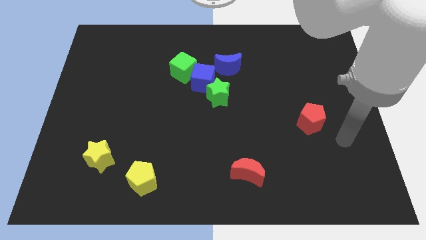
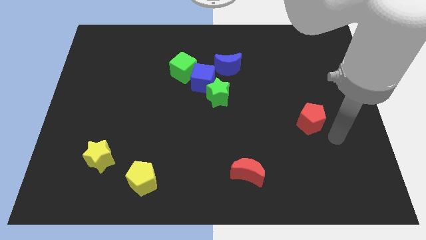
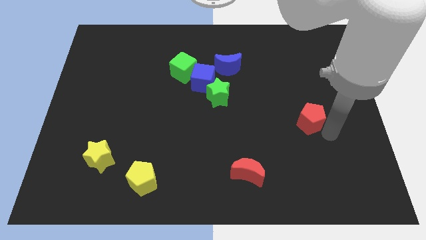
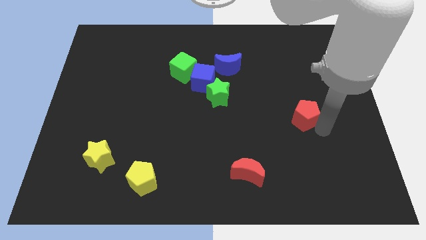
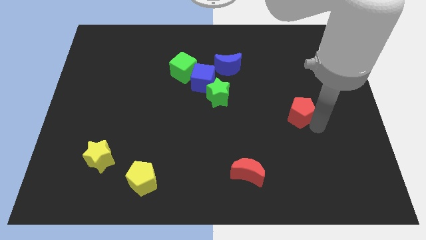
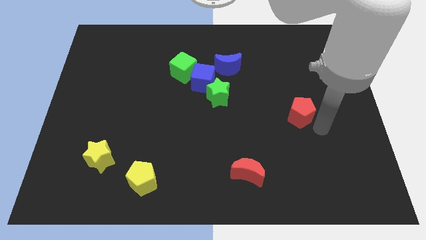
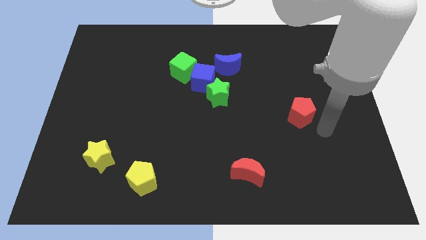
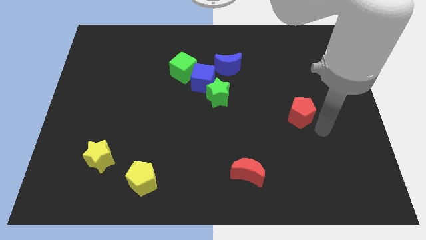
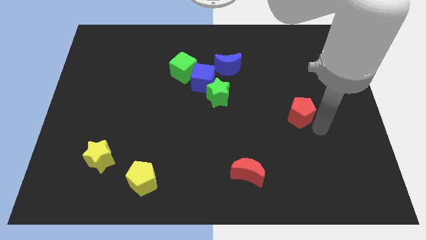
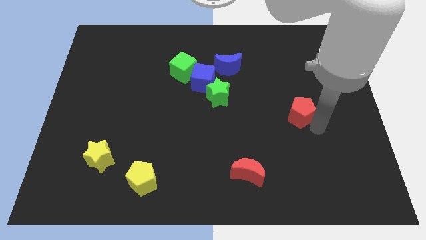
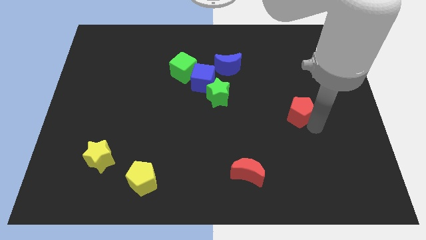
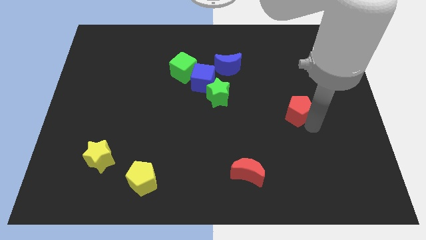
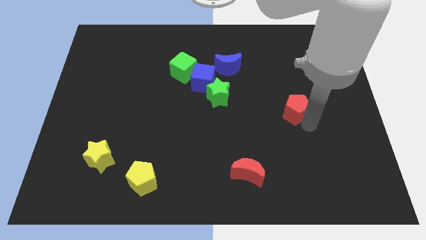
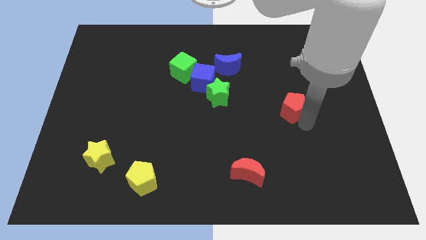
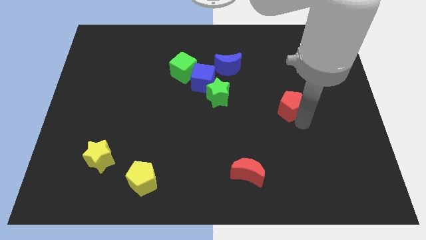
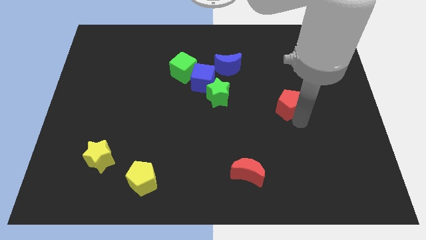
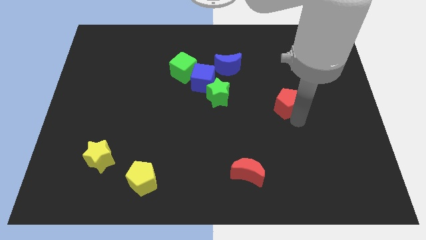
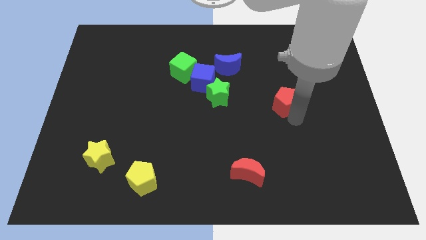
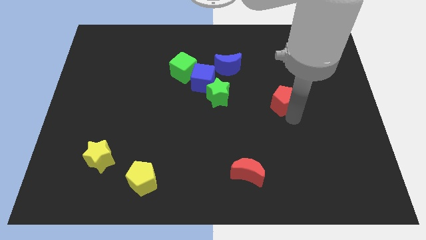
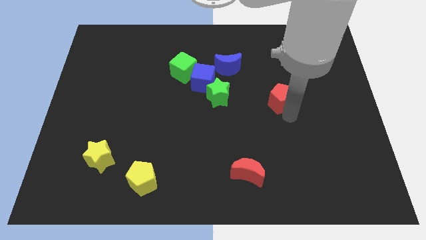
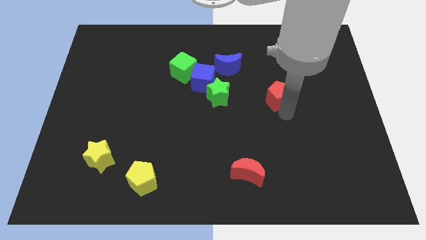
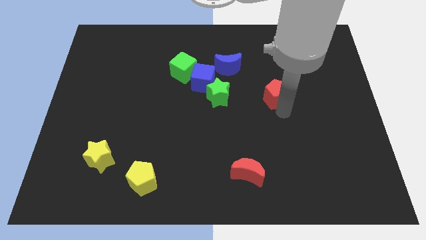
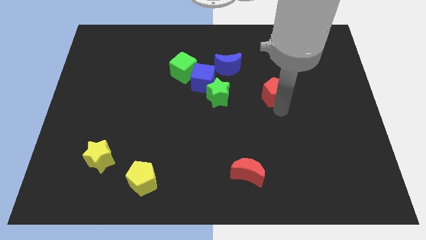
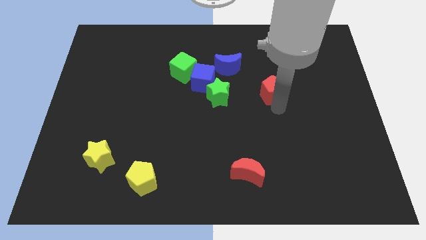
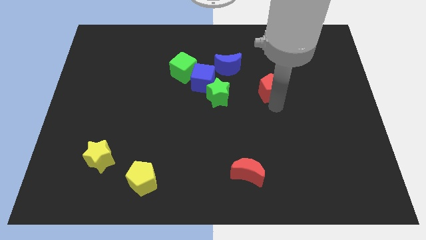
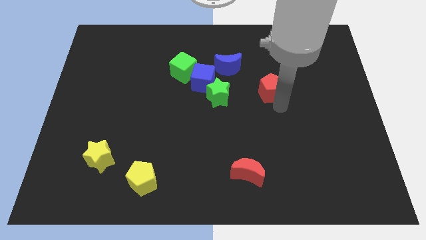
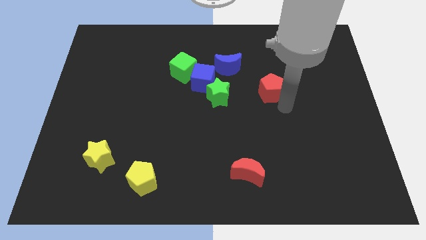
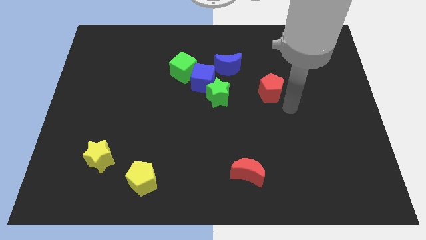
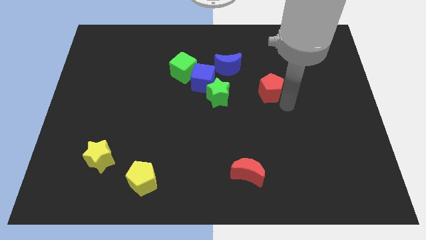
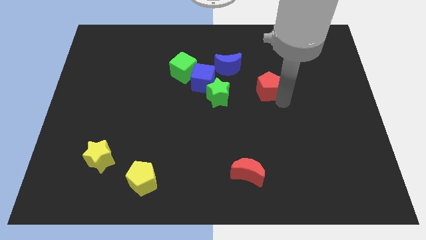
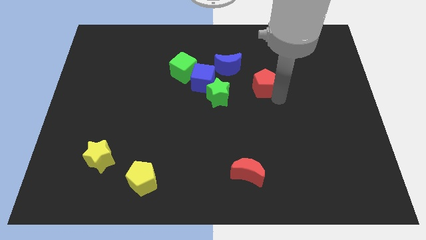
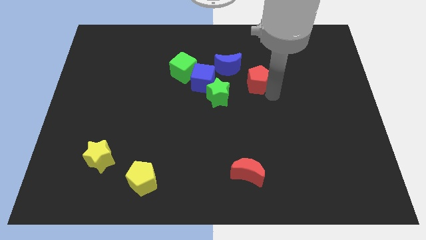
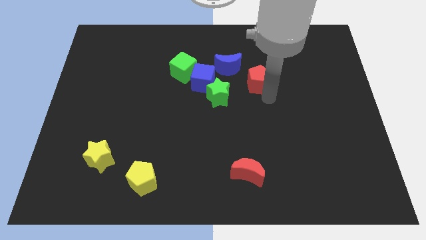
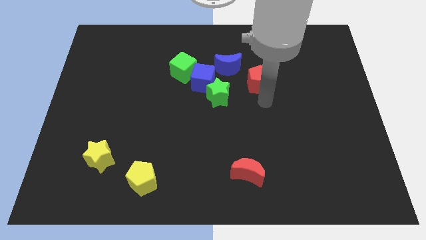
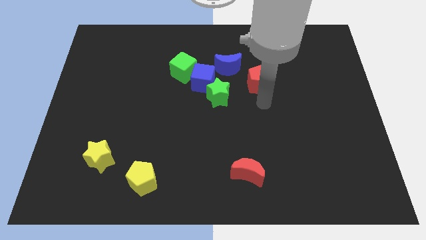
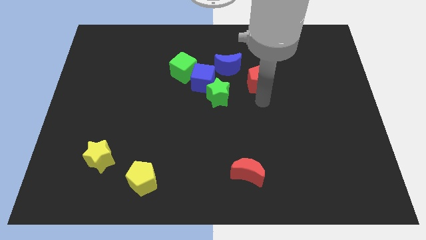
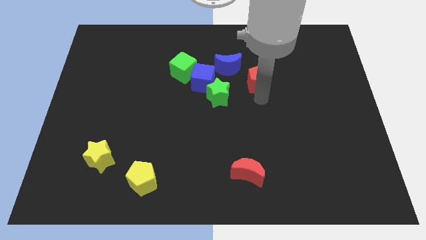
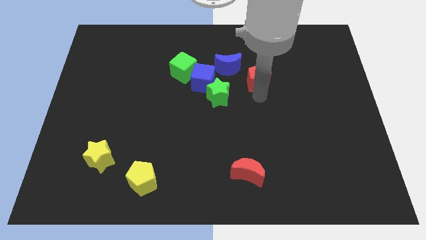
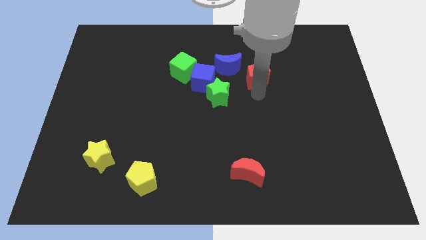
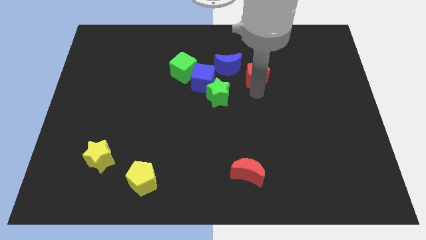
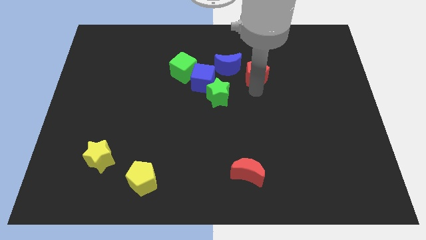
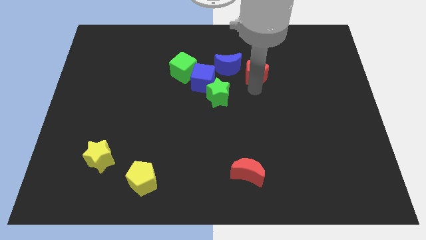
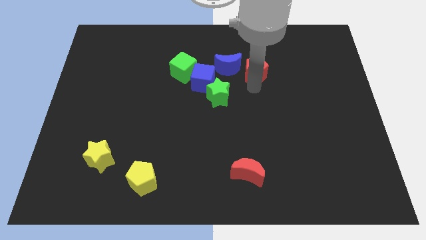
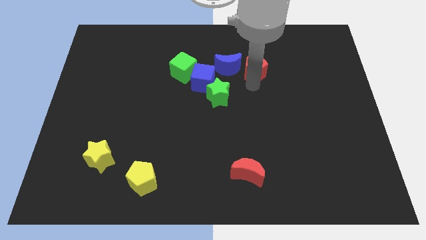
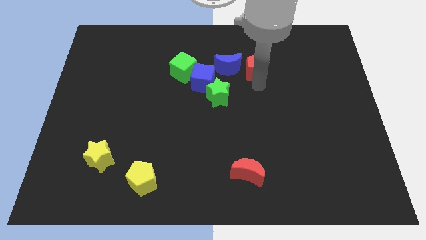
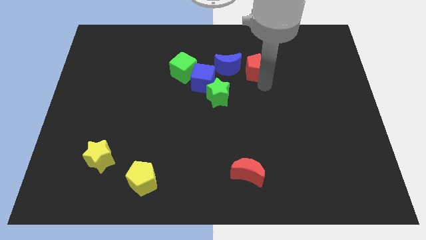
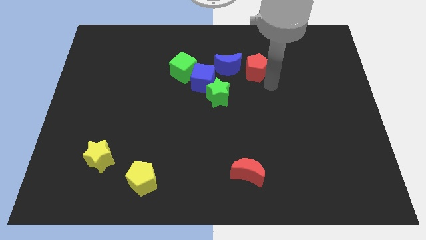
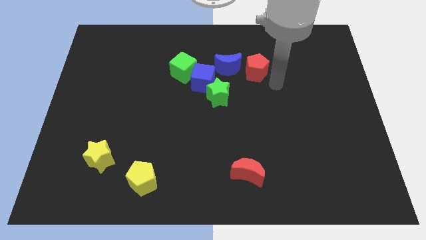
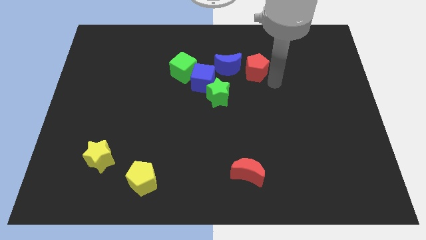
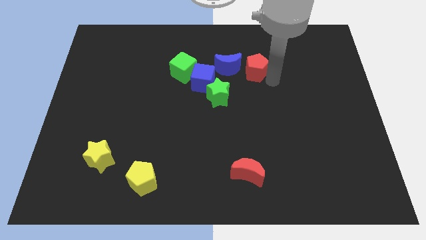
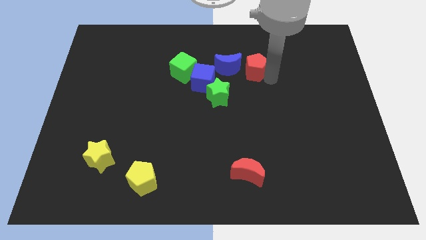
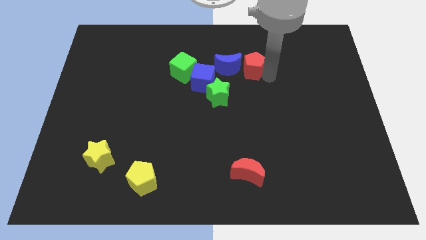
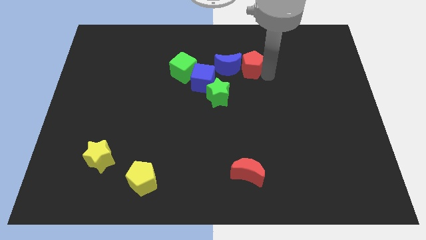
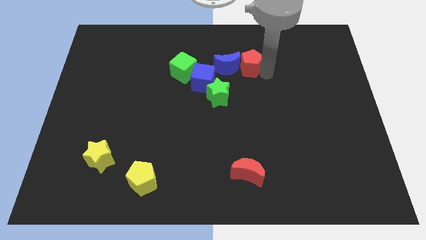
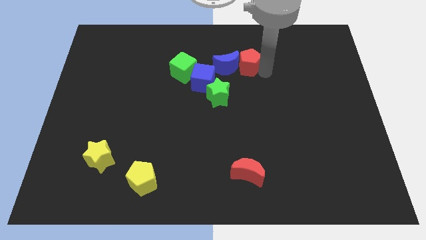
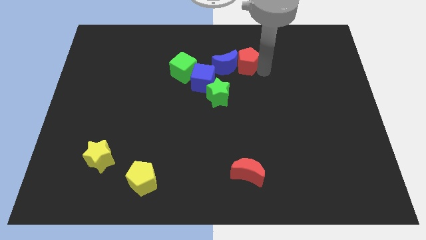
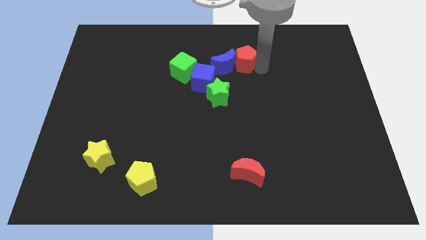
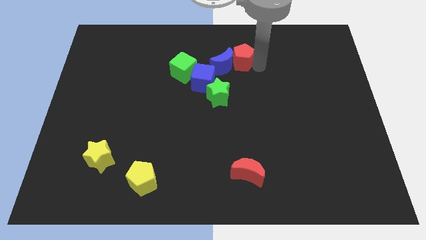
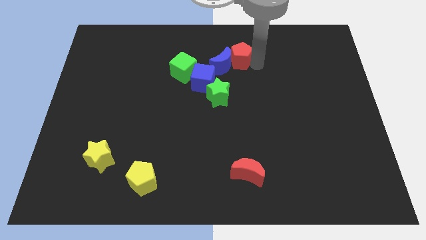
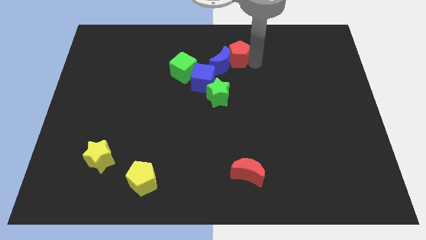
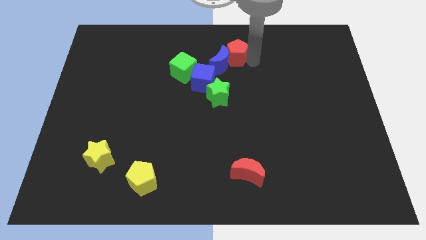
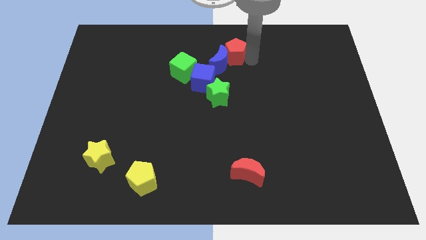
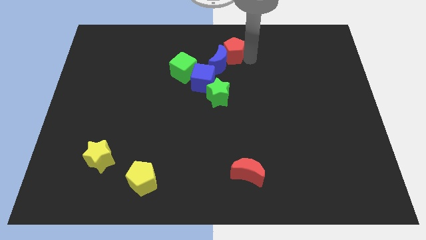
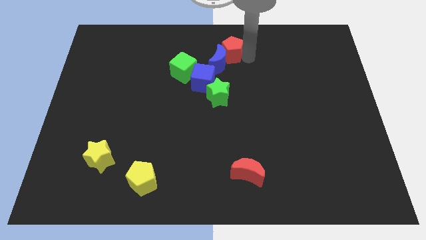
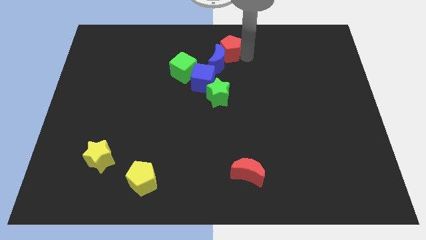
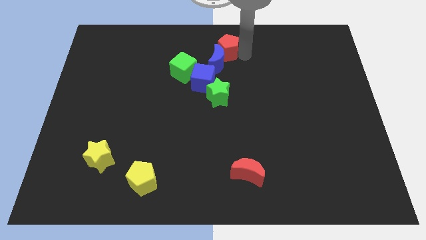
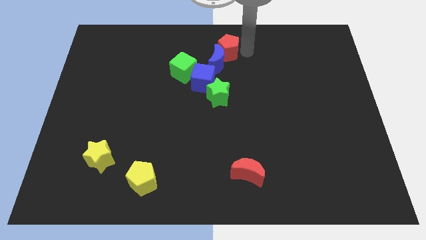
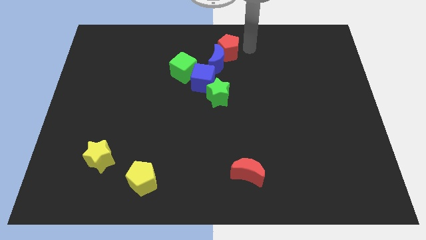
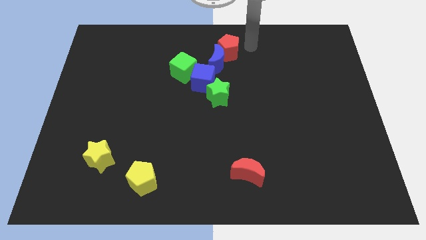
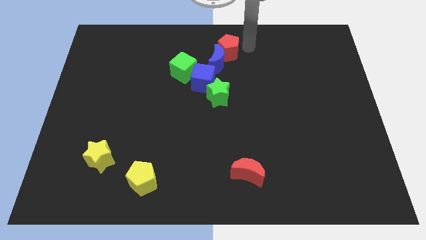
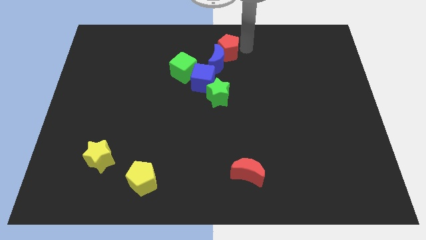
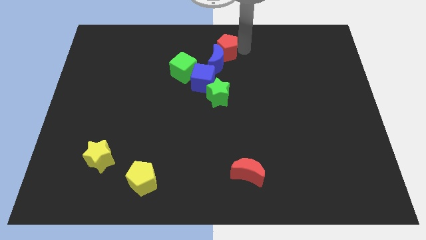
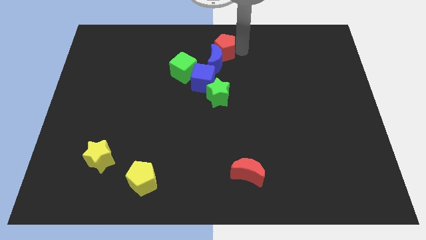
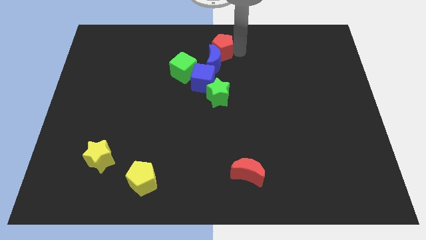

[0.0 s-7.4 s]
put the red pentagon to the top right side of the green cube

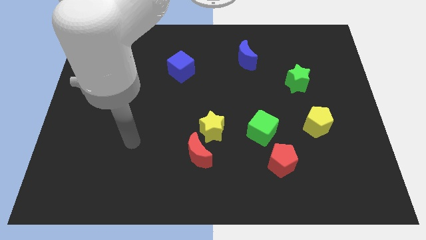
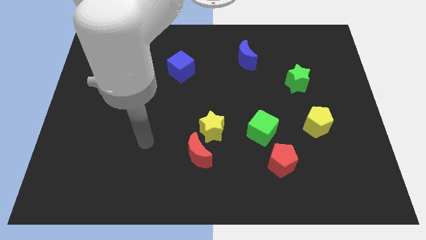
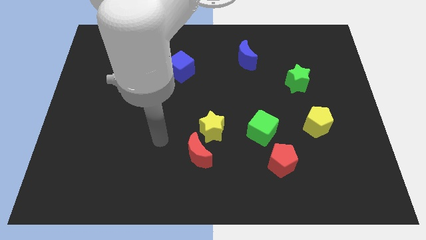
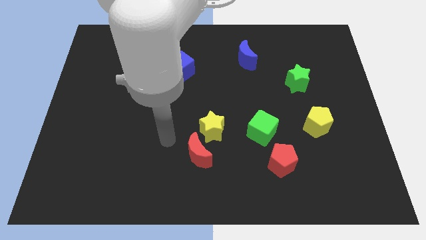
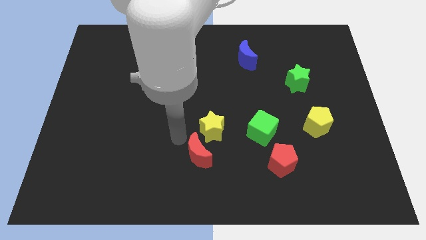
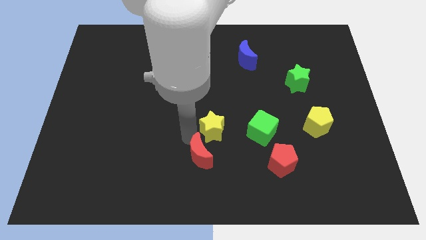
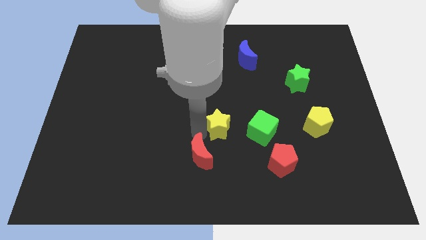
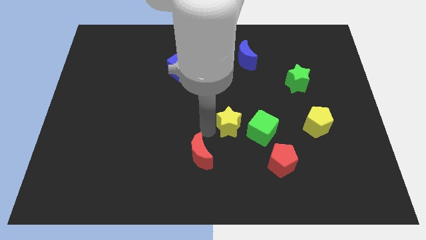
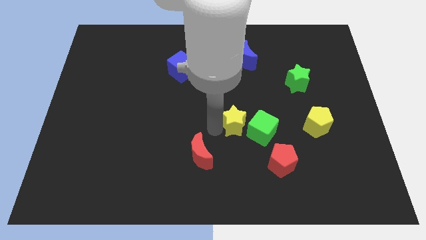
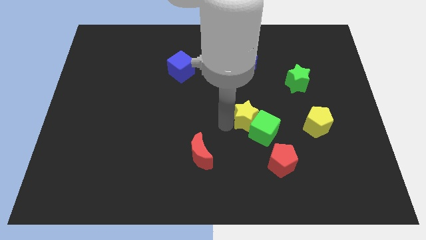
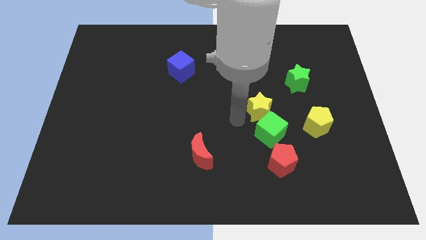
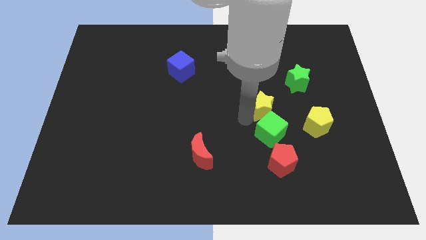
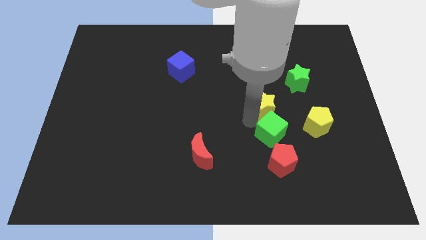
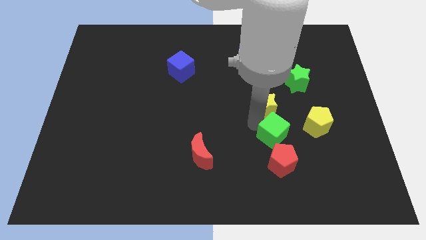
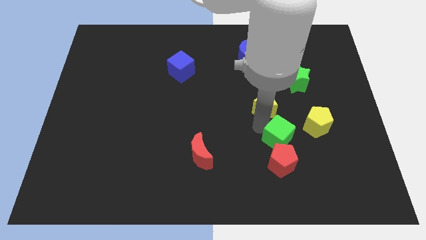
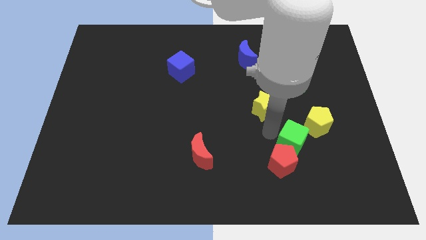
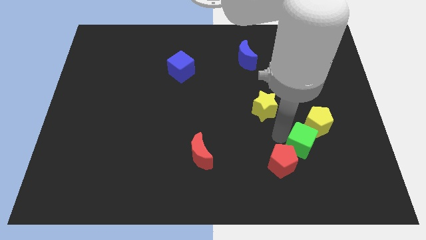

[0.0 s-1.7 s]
slide the green cube just right of the red pentagon
